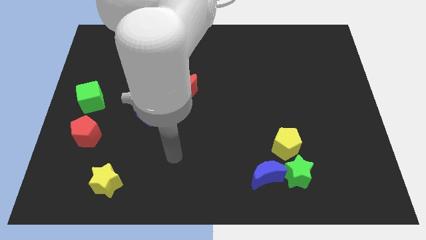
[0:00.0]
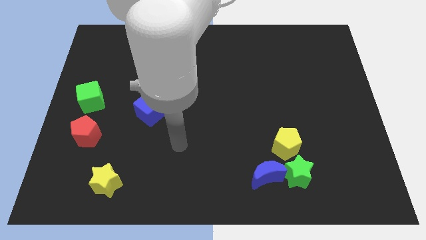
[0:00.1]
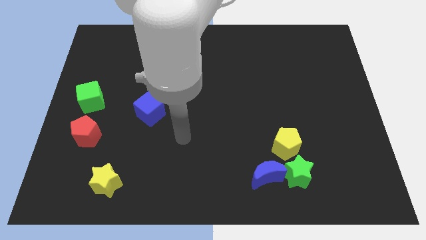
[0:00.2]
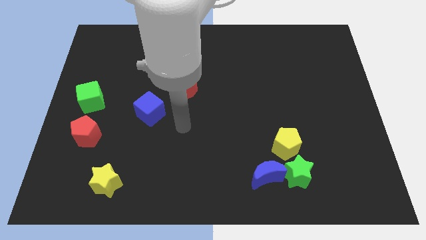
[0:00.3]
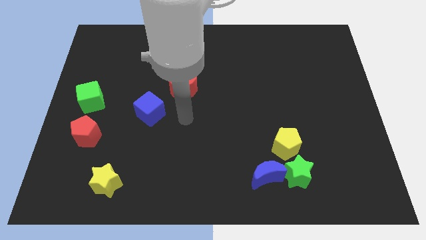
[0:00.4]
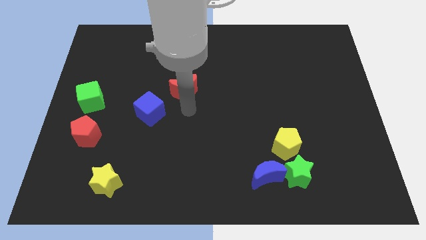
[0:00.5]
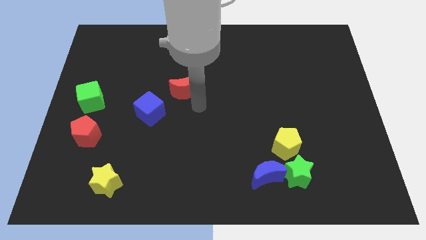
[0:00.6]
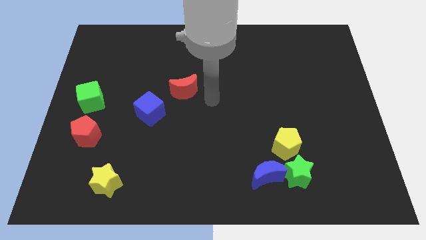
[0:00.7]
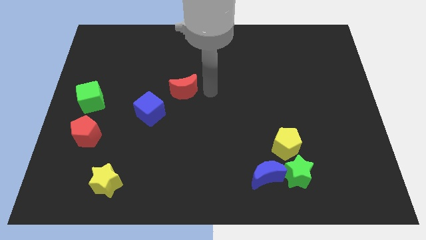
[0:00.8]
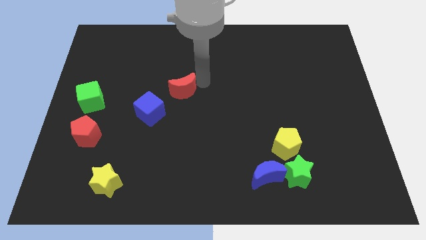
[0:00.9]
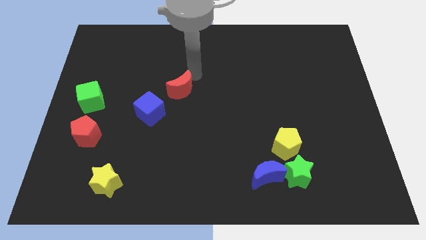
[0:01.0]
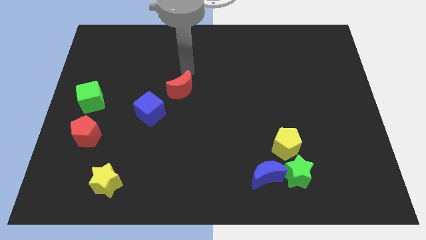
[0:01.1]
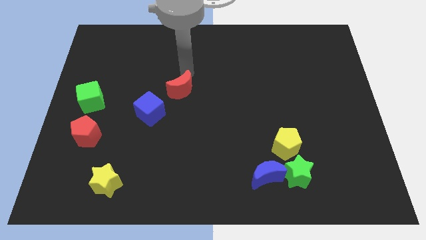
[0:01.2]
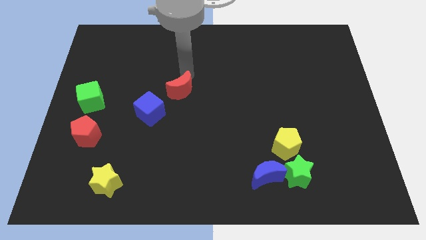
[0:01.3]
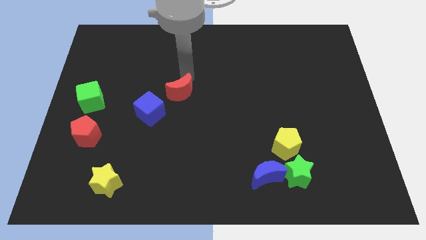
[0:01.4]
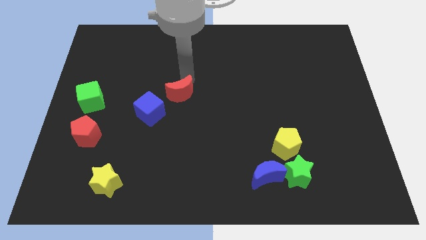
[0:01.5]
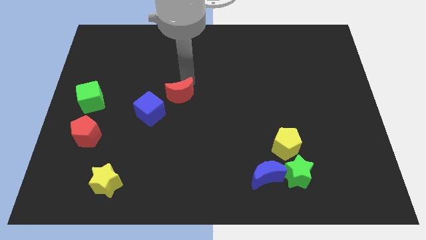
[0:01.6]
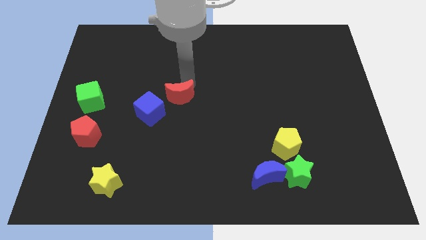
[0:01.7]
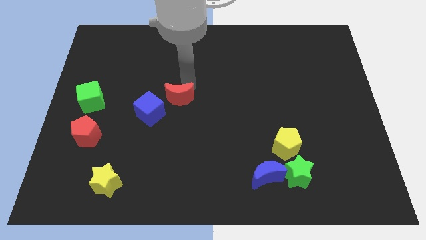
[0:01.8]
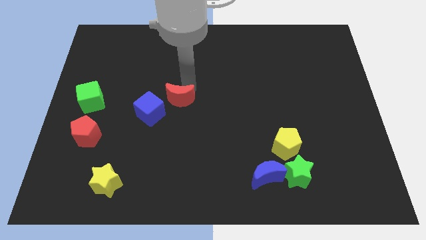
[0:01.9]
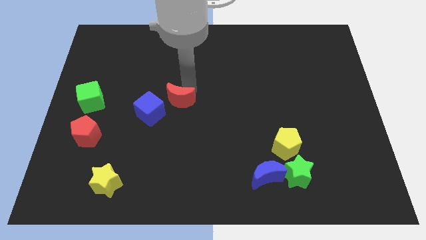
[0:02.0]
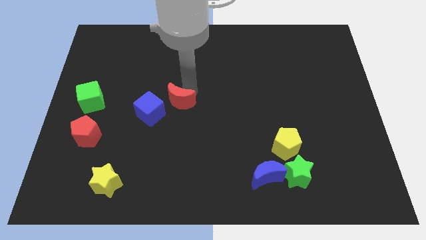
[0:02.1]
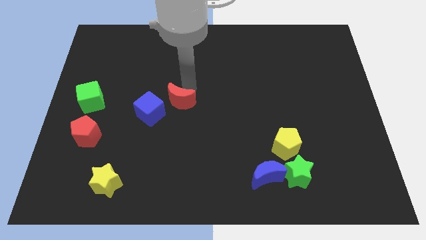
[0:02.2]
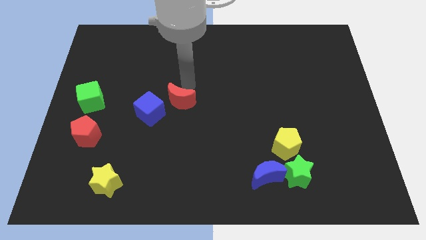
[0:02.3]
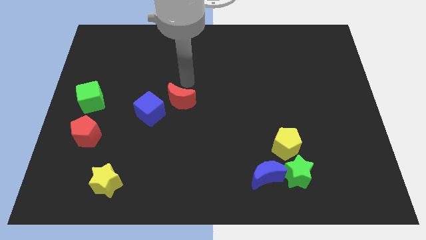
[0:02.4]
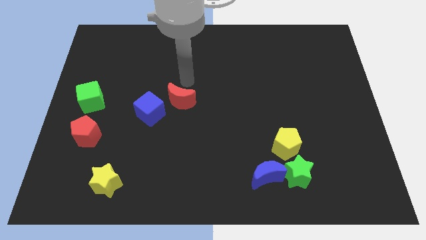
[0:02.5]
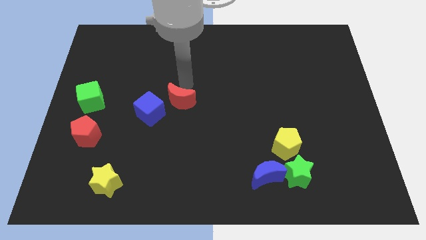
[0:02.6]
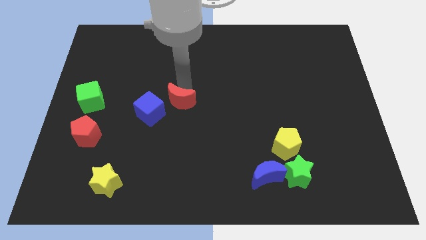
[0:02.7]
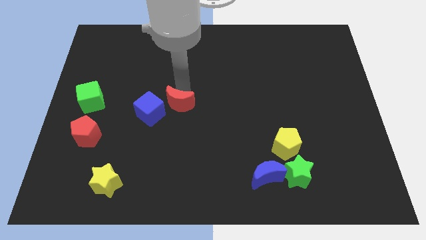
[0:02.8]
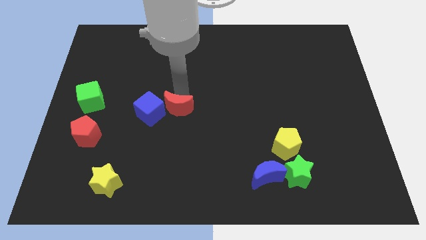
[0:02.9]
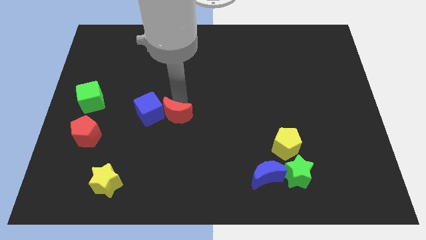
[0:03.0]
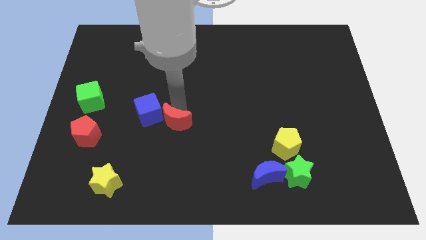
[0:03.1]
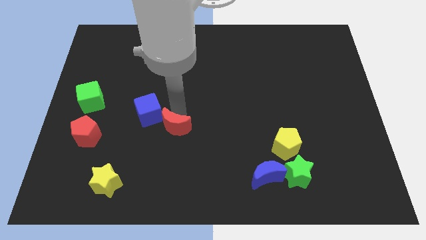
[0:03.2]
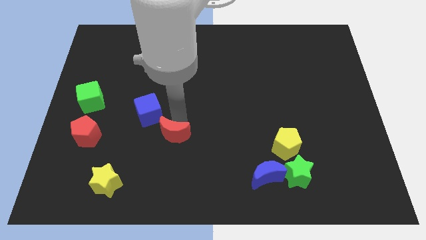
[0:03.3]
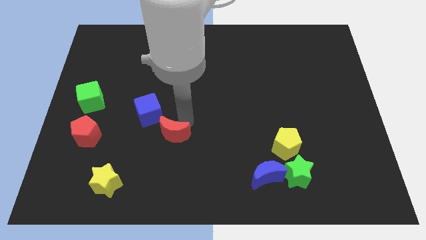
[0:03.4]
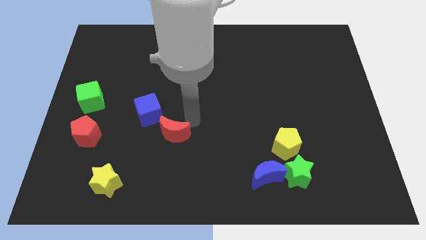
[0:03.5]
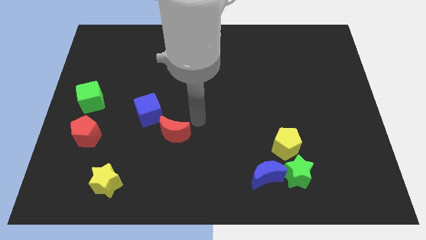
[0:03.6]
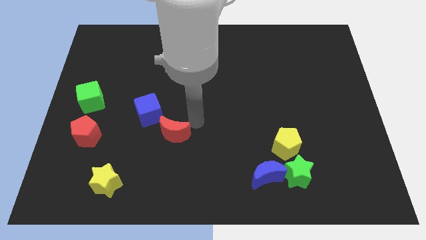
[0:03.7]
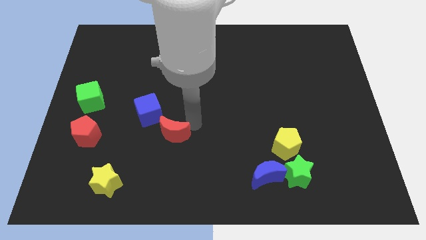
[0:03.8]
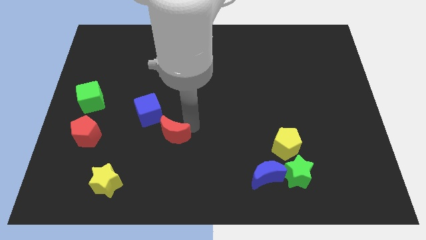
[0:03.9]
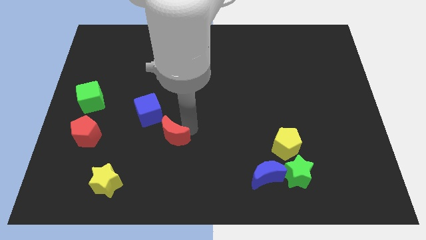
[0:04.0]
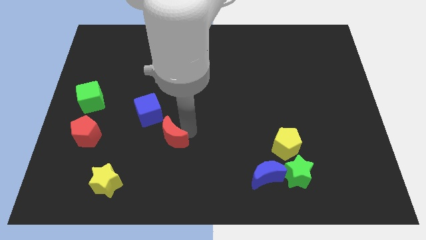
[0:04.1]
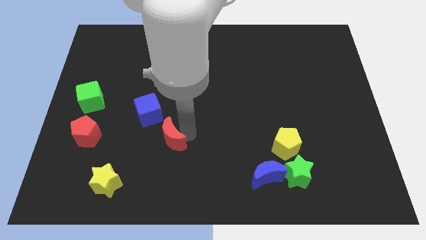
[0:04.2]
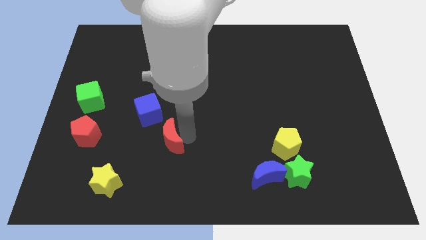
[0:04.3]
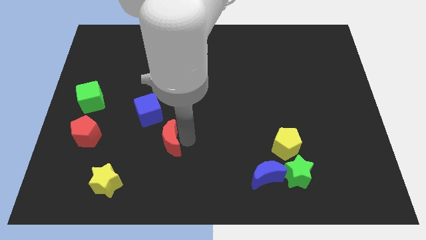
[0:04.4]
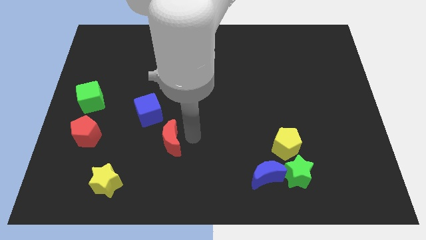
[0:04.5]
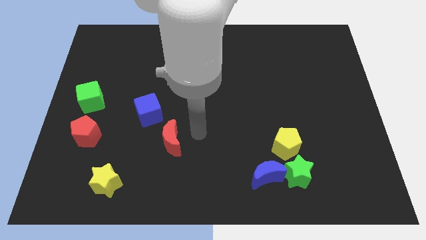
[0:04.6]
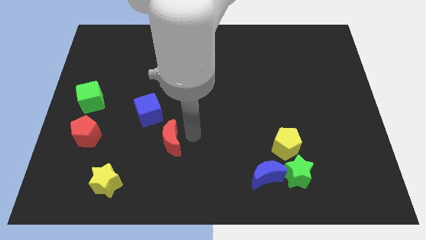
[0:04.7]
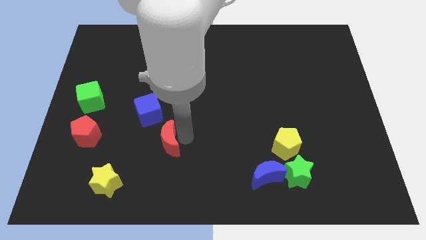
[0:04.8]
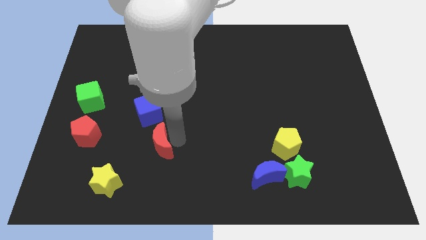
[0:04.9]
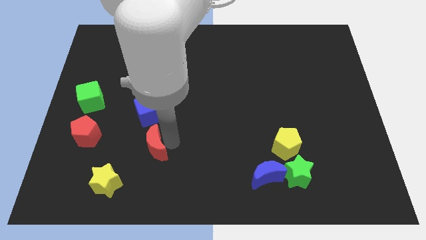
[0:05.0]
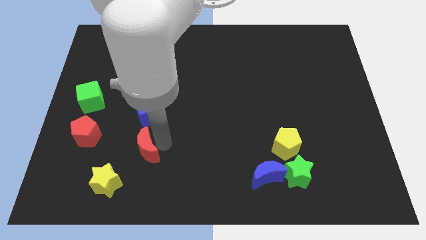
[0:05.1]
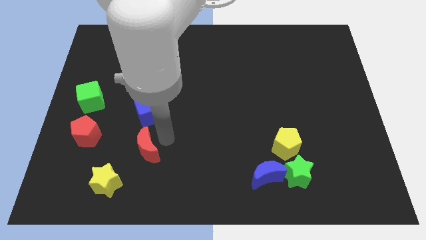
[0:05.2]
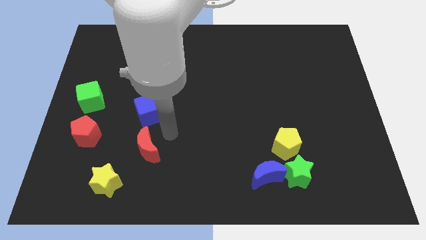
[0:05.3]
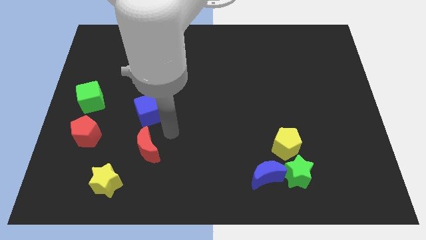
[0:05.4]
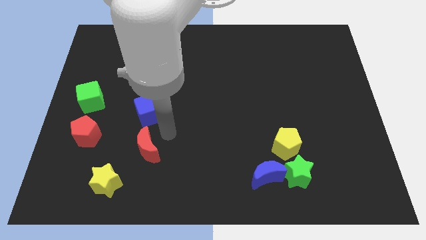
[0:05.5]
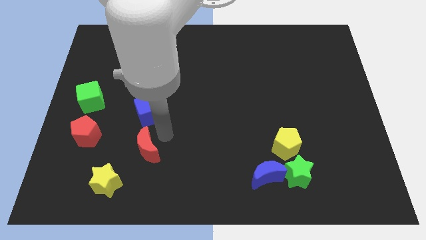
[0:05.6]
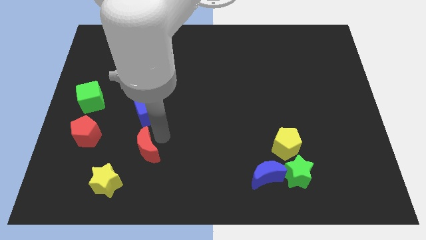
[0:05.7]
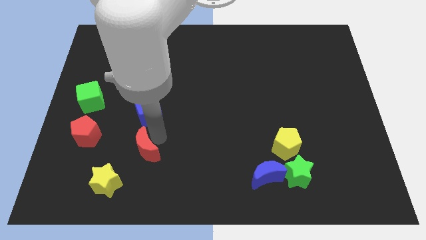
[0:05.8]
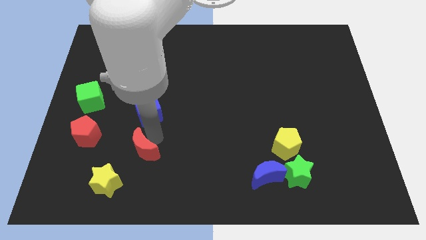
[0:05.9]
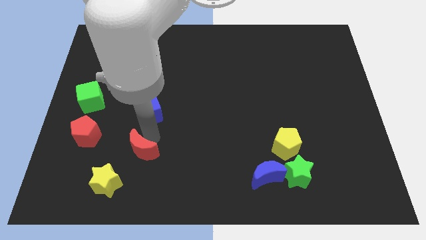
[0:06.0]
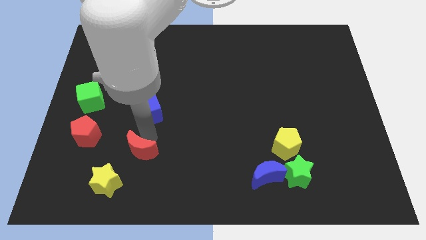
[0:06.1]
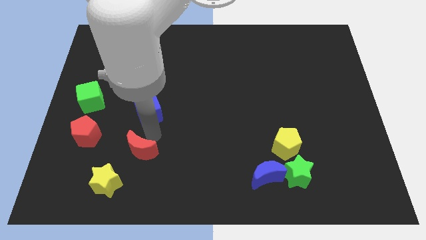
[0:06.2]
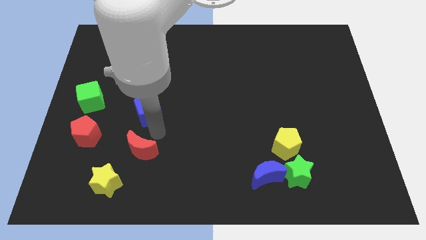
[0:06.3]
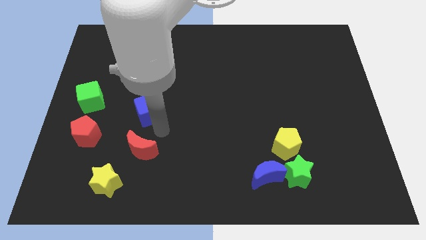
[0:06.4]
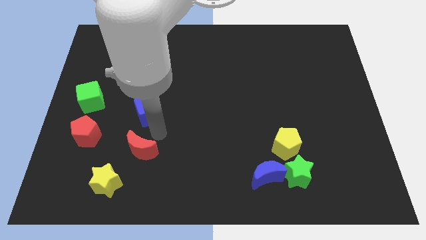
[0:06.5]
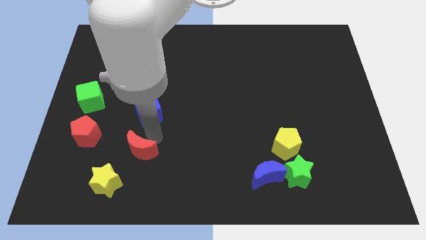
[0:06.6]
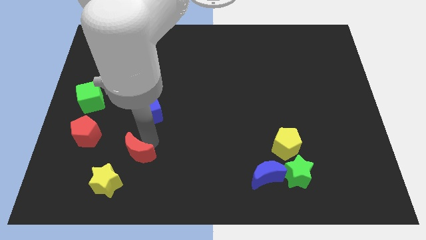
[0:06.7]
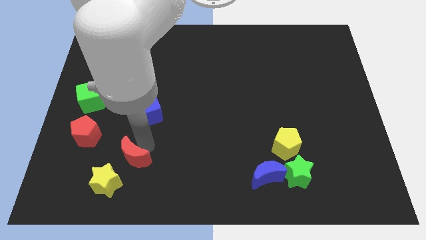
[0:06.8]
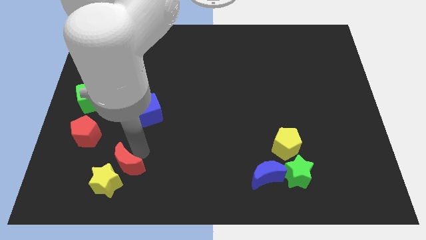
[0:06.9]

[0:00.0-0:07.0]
put the red moon close to the yellow star

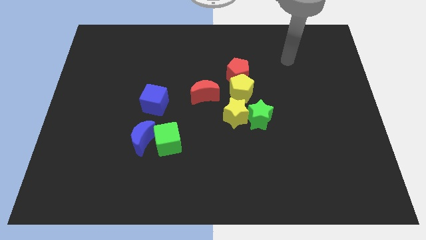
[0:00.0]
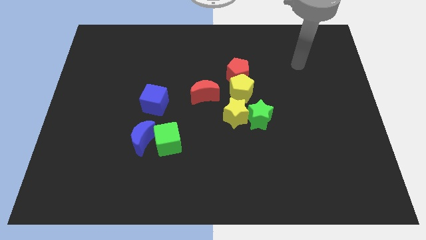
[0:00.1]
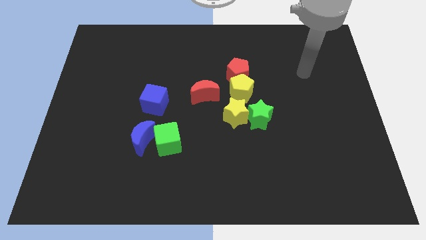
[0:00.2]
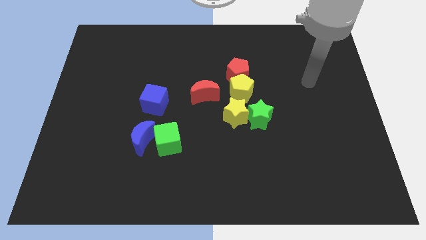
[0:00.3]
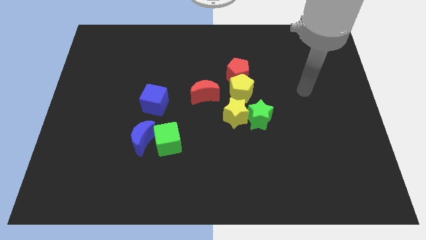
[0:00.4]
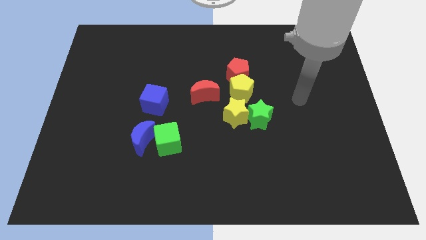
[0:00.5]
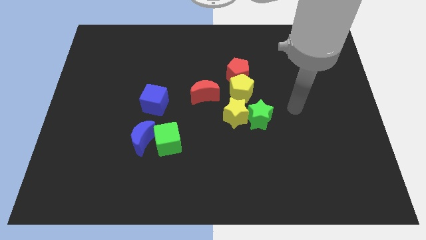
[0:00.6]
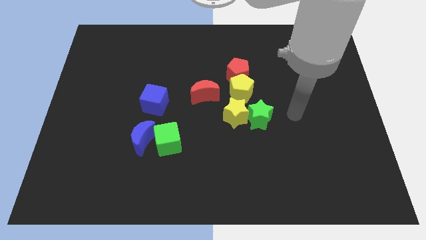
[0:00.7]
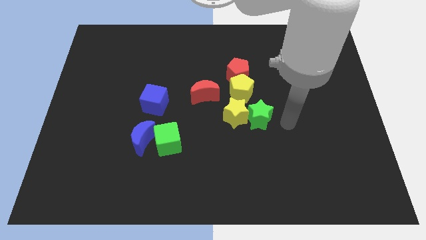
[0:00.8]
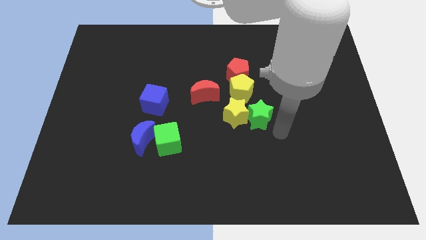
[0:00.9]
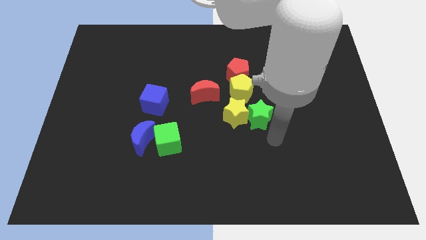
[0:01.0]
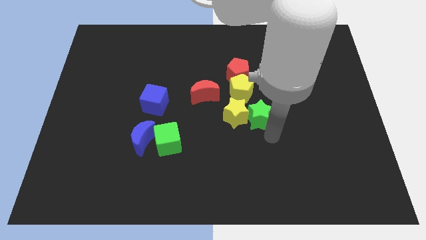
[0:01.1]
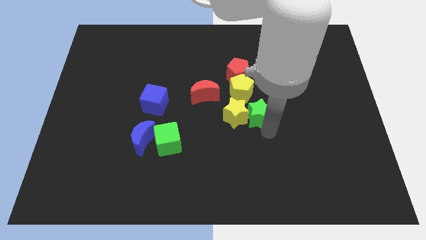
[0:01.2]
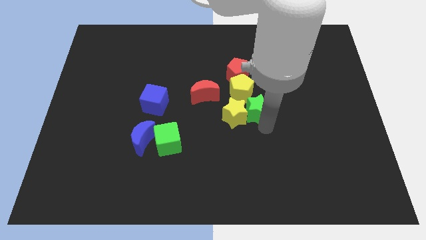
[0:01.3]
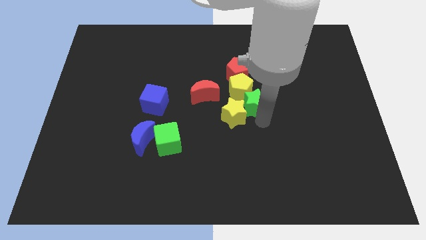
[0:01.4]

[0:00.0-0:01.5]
move the green star to the yellow pentagon
